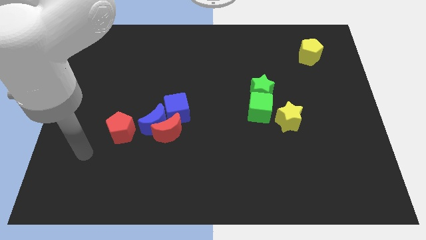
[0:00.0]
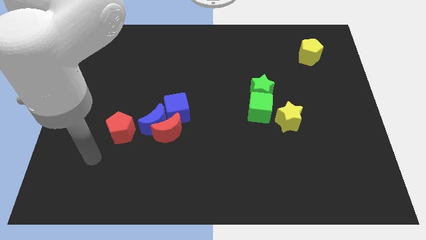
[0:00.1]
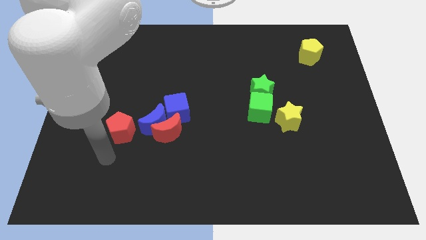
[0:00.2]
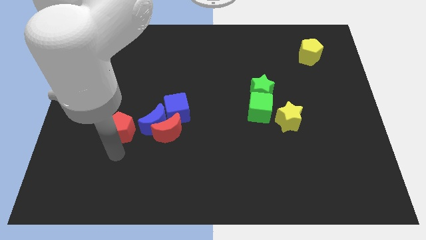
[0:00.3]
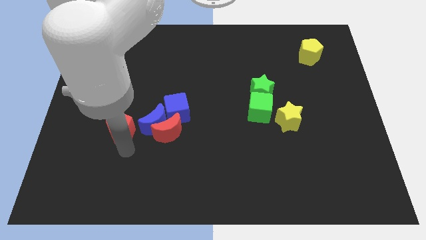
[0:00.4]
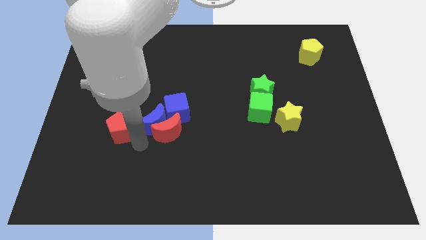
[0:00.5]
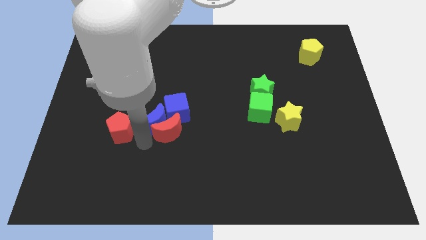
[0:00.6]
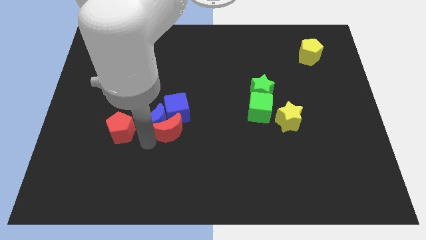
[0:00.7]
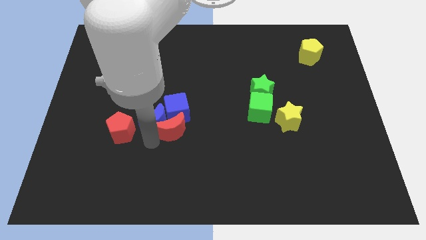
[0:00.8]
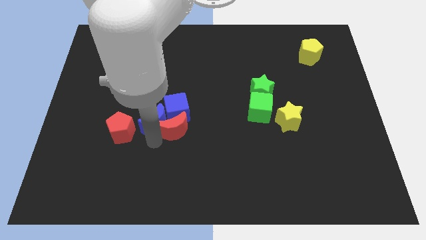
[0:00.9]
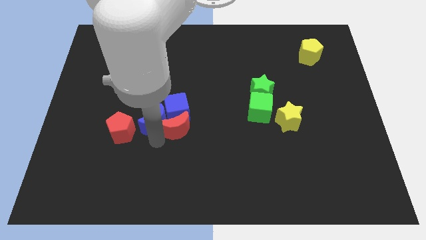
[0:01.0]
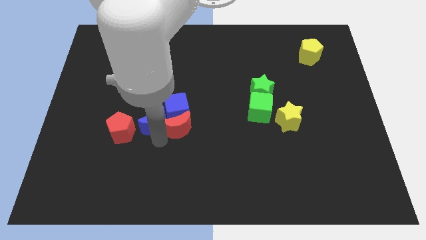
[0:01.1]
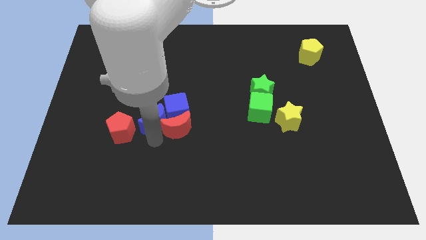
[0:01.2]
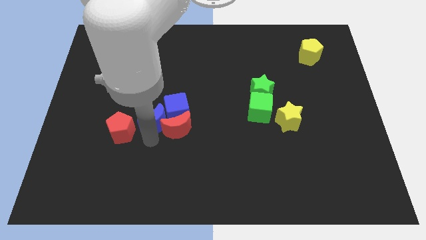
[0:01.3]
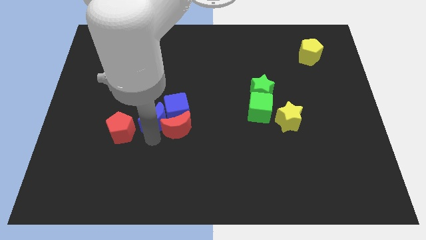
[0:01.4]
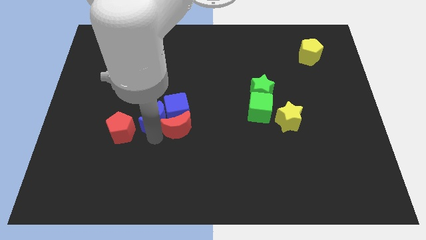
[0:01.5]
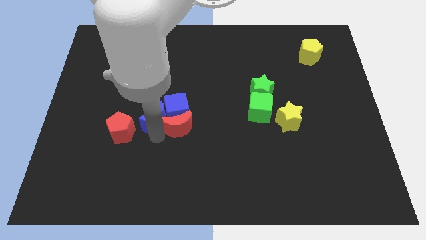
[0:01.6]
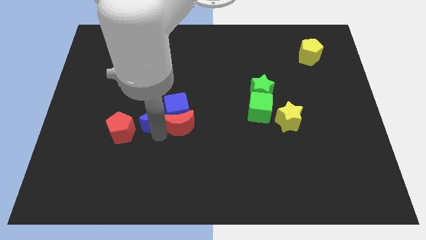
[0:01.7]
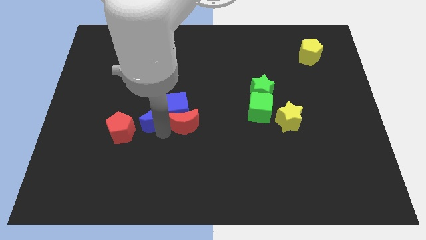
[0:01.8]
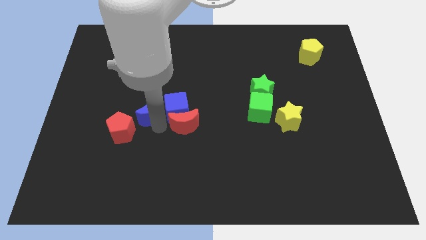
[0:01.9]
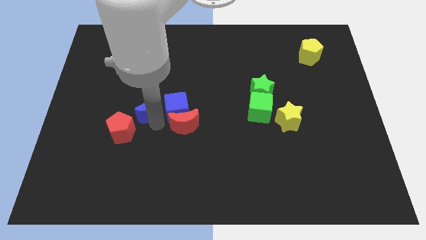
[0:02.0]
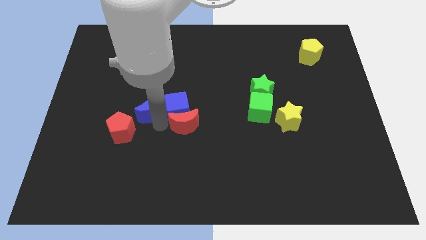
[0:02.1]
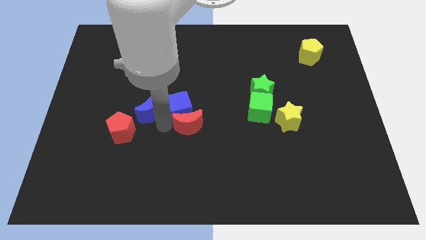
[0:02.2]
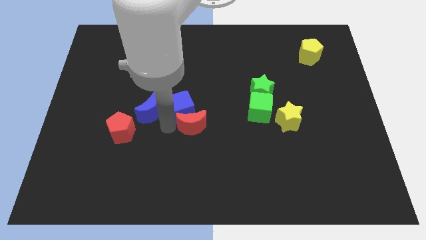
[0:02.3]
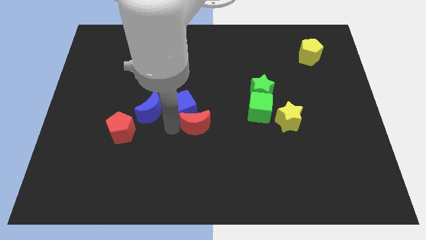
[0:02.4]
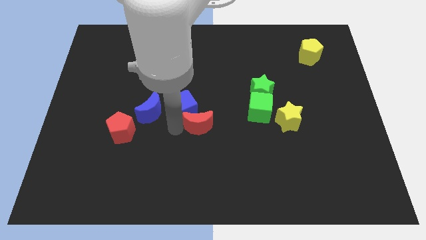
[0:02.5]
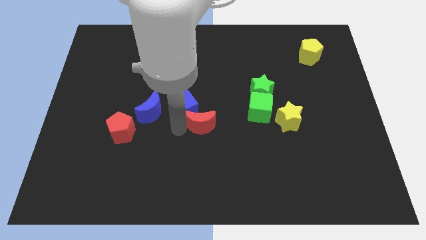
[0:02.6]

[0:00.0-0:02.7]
slightly slide the red moon right

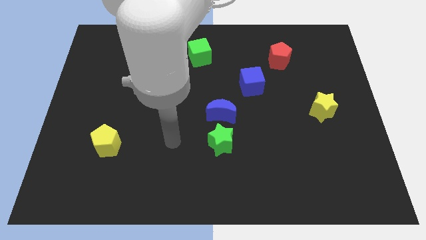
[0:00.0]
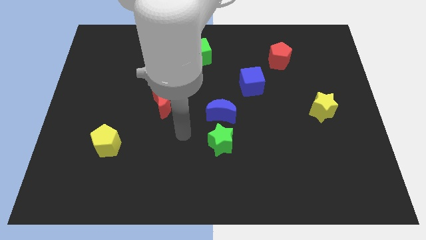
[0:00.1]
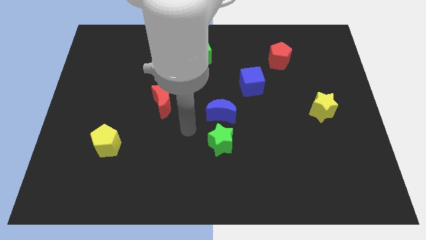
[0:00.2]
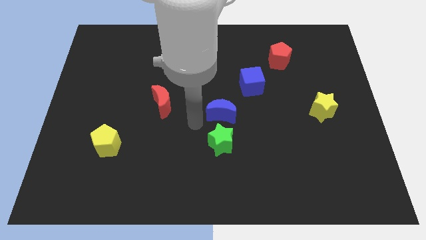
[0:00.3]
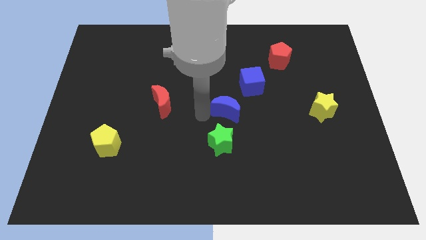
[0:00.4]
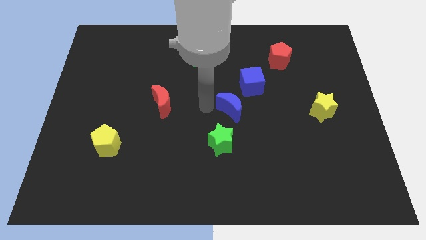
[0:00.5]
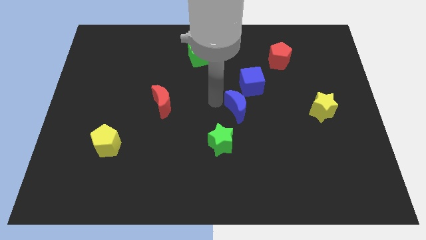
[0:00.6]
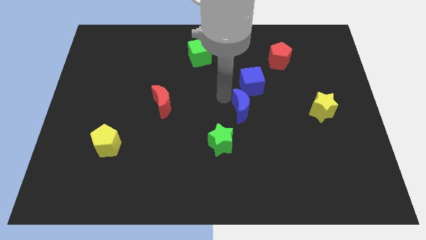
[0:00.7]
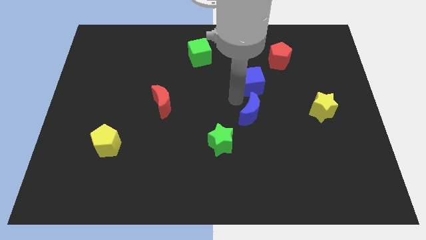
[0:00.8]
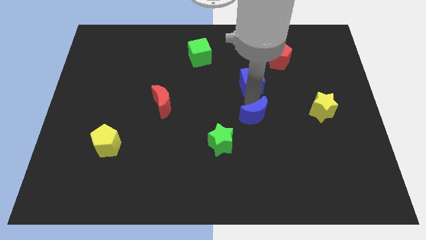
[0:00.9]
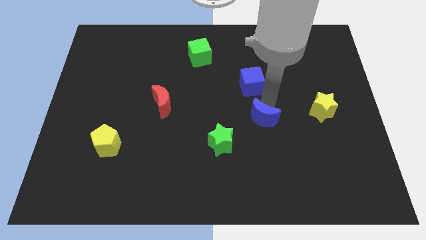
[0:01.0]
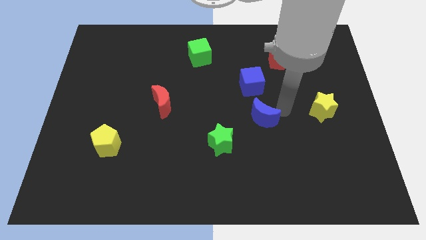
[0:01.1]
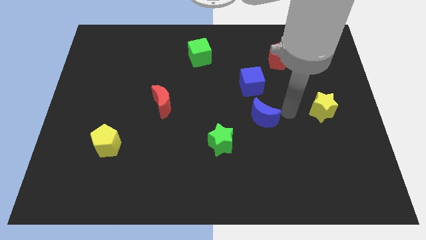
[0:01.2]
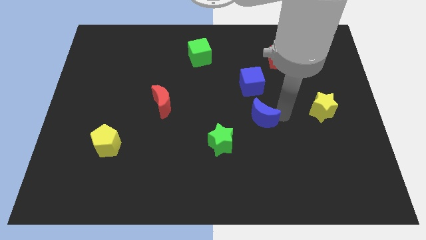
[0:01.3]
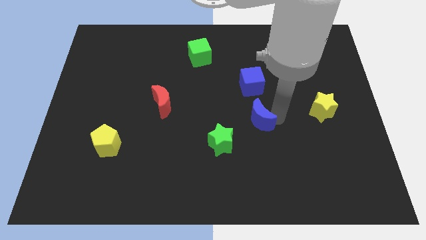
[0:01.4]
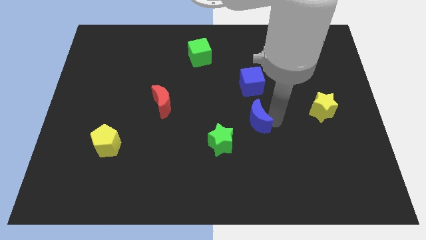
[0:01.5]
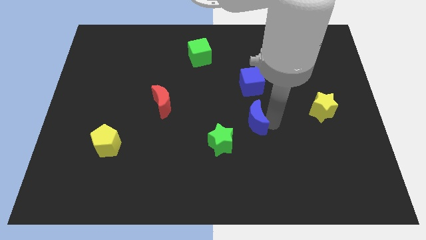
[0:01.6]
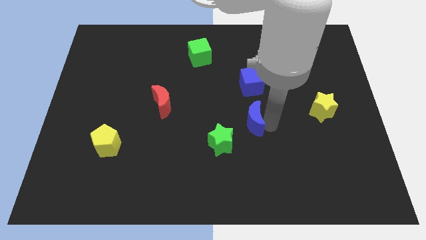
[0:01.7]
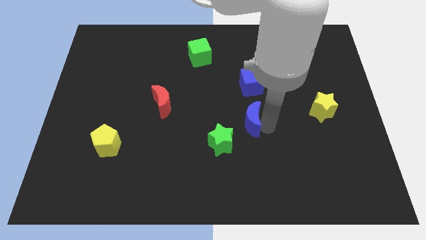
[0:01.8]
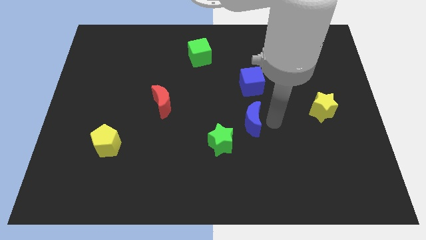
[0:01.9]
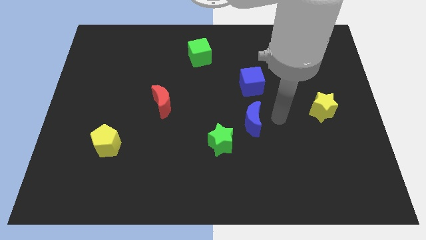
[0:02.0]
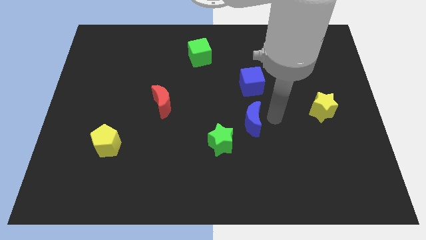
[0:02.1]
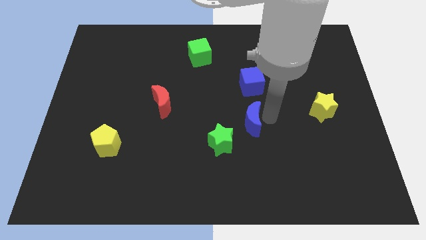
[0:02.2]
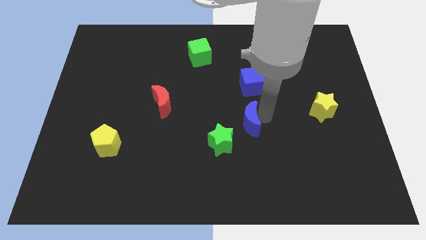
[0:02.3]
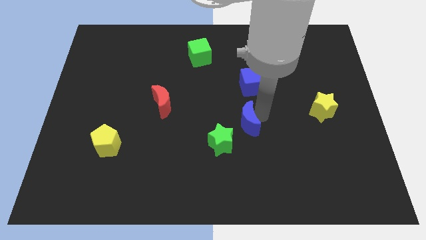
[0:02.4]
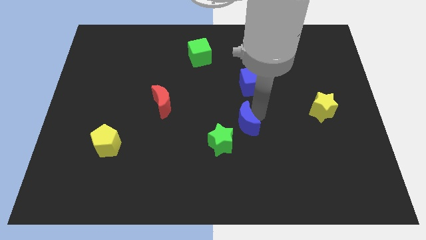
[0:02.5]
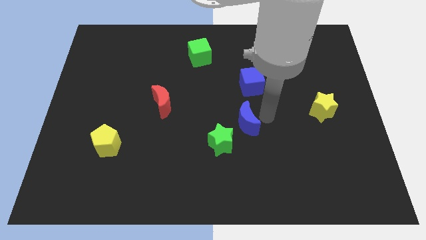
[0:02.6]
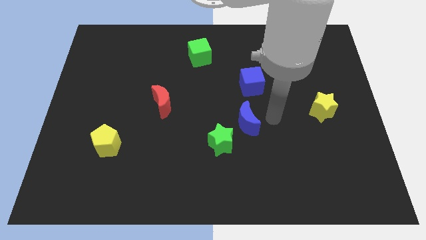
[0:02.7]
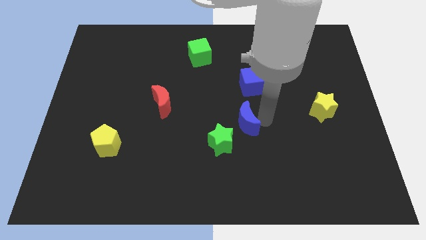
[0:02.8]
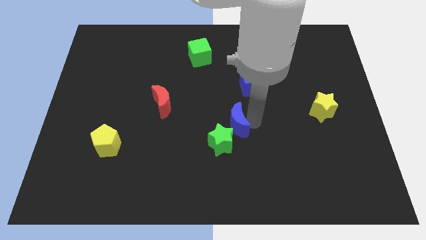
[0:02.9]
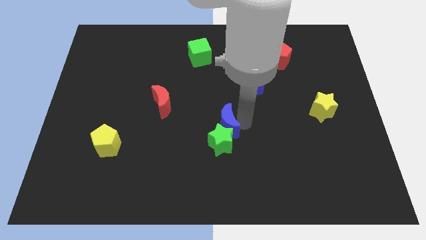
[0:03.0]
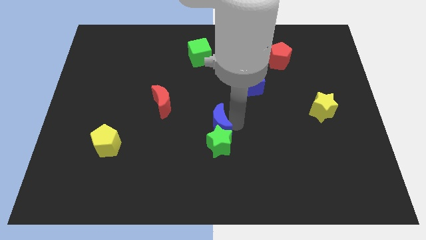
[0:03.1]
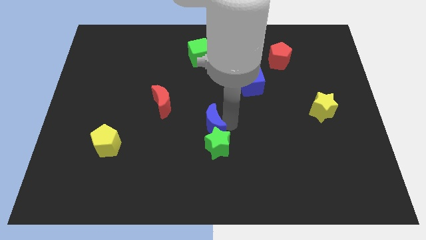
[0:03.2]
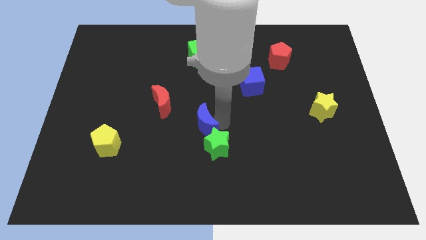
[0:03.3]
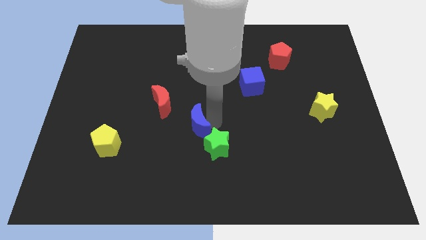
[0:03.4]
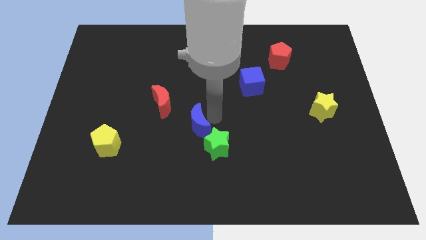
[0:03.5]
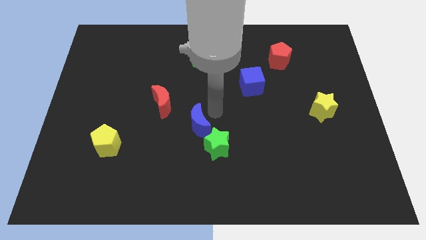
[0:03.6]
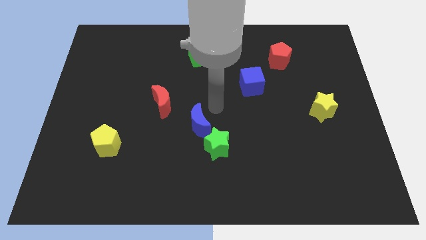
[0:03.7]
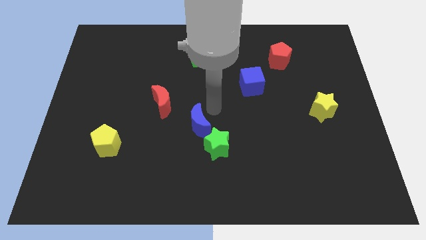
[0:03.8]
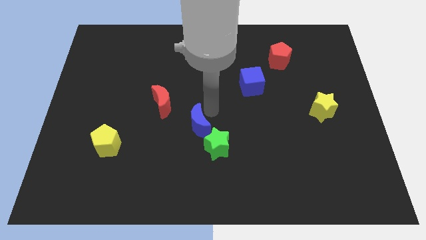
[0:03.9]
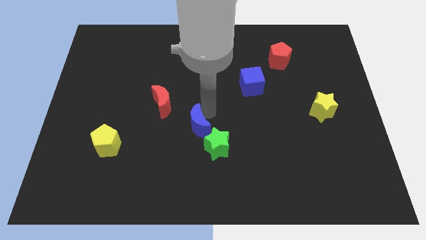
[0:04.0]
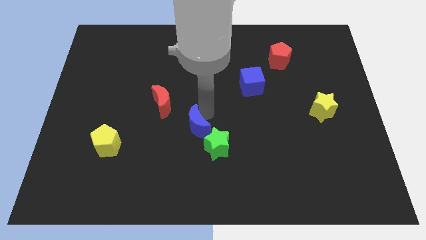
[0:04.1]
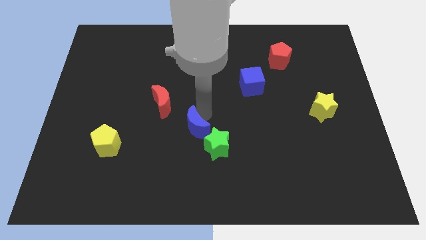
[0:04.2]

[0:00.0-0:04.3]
slide the blue moon downwards and left somewhat

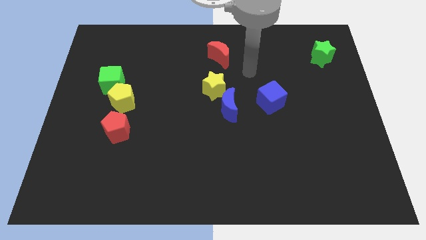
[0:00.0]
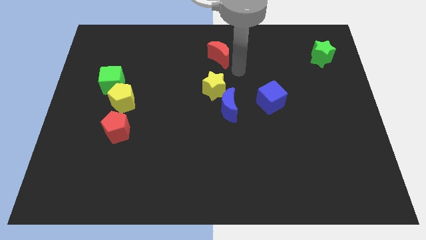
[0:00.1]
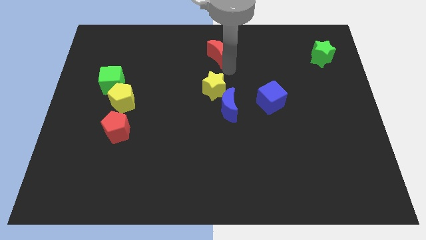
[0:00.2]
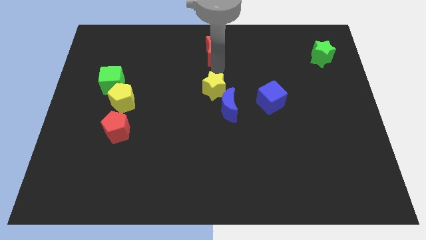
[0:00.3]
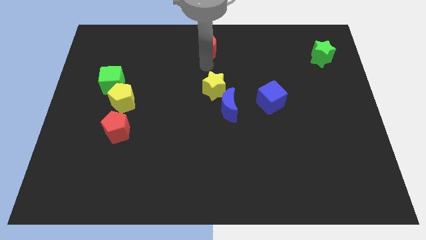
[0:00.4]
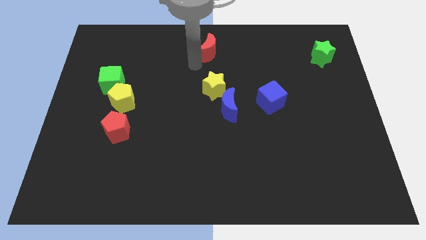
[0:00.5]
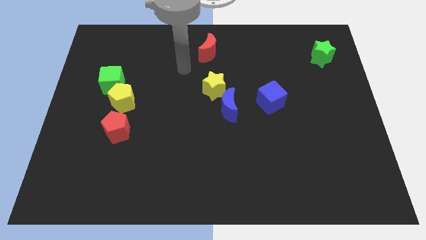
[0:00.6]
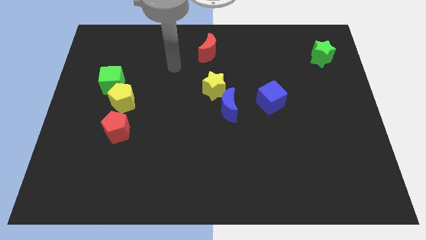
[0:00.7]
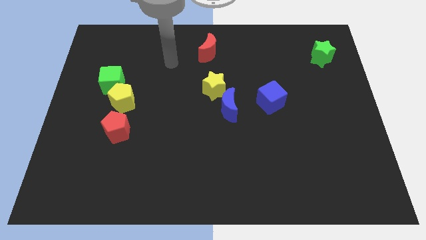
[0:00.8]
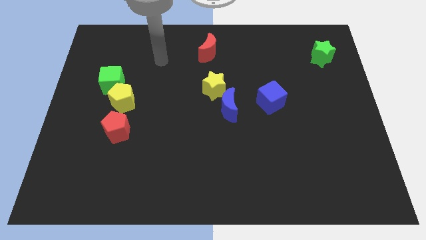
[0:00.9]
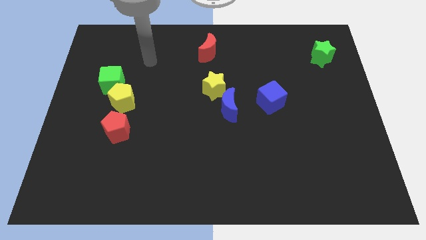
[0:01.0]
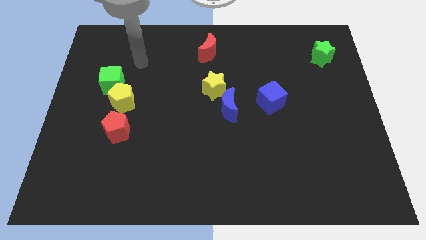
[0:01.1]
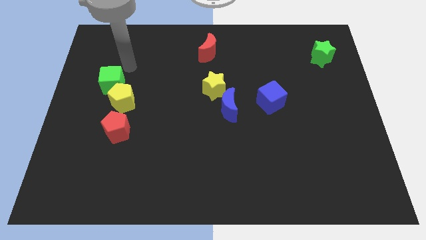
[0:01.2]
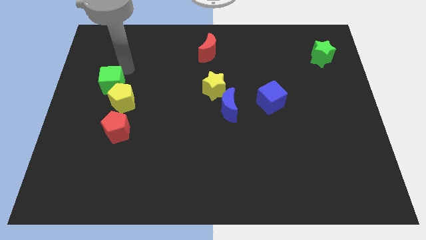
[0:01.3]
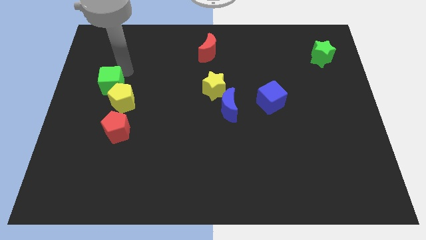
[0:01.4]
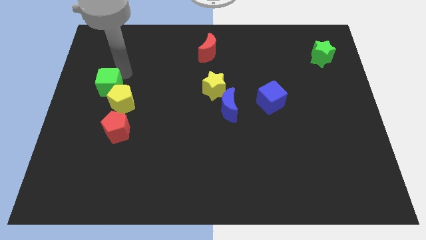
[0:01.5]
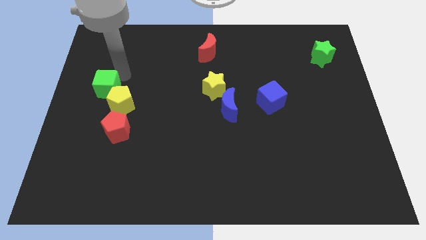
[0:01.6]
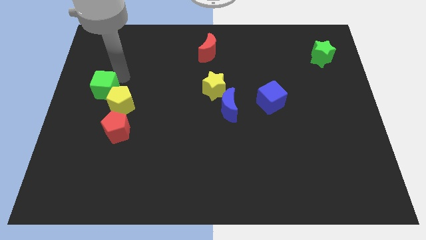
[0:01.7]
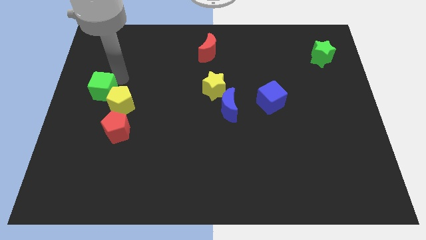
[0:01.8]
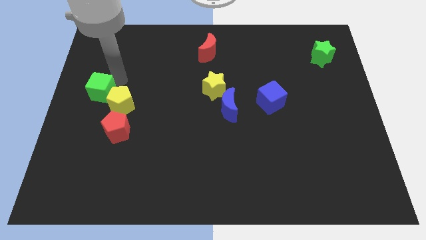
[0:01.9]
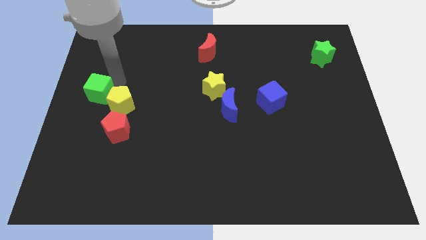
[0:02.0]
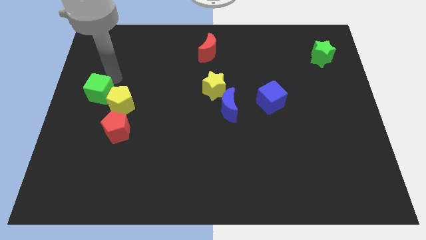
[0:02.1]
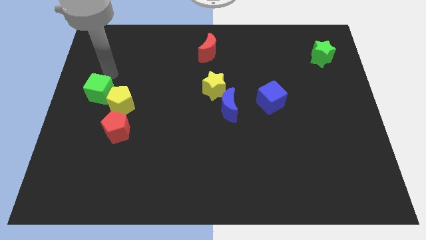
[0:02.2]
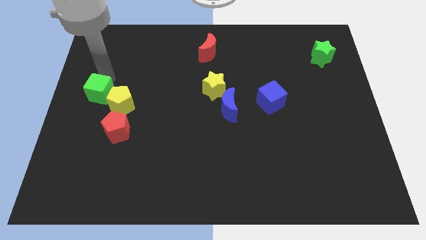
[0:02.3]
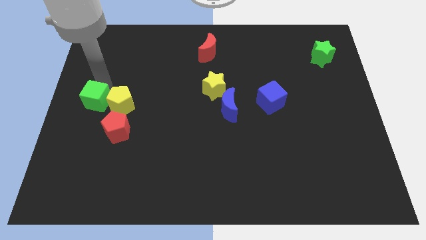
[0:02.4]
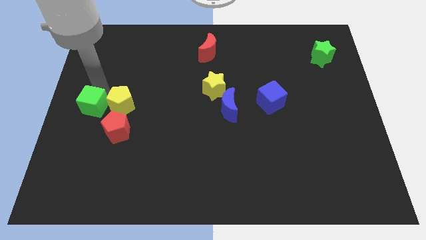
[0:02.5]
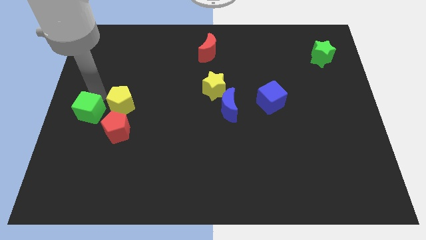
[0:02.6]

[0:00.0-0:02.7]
slightly slide the green cube down
